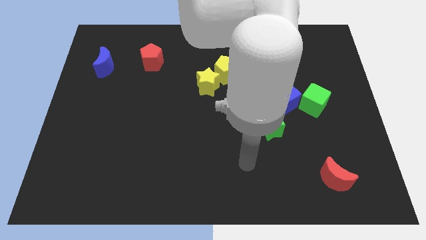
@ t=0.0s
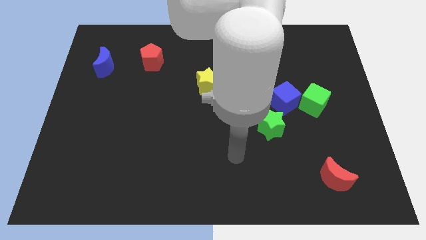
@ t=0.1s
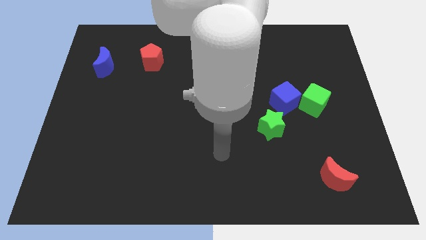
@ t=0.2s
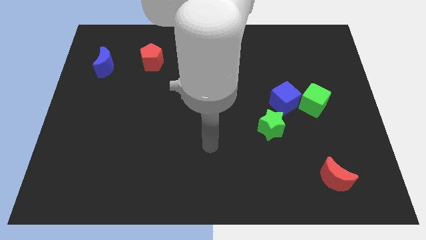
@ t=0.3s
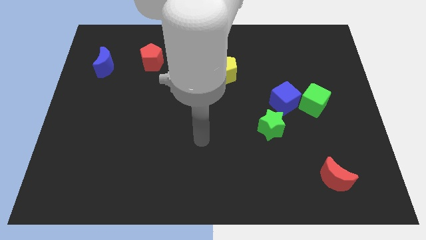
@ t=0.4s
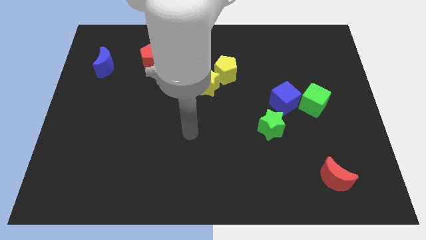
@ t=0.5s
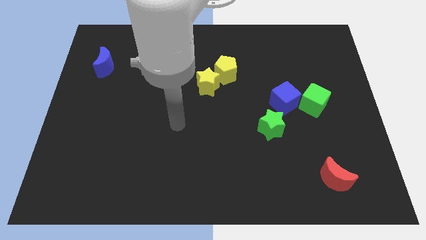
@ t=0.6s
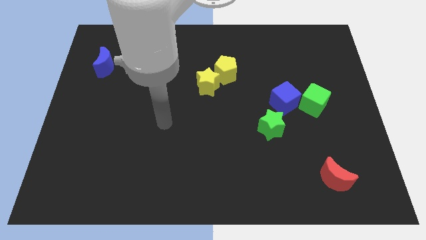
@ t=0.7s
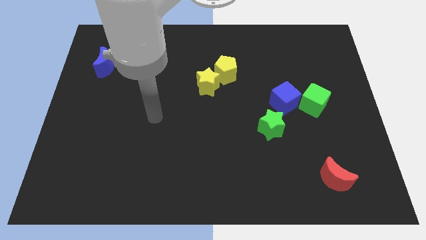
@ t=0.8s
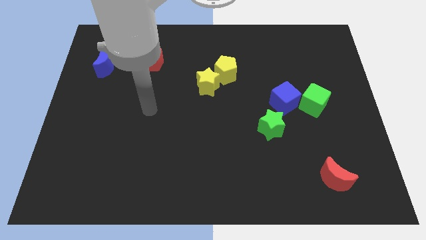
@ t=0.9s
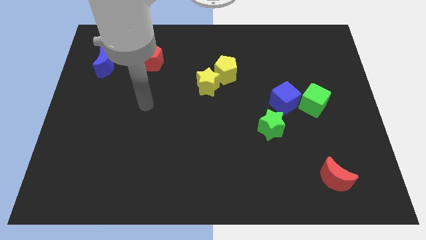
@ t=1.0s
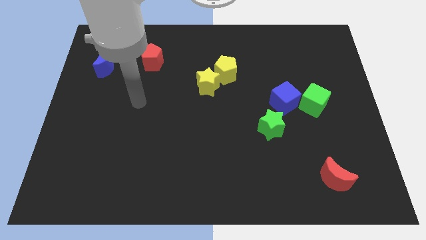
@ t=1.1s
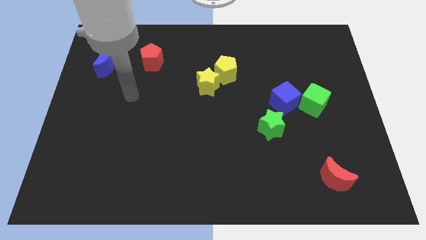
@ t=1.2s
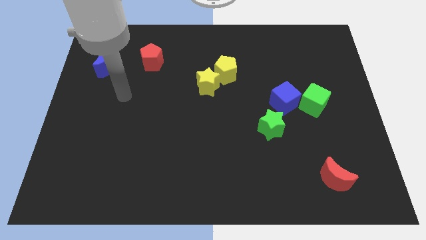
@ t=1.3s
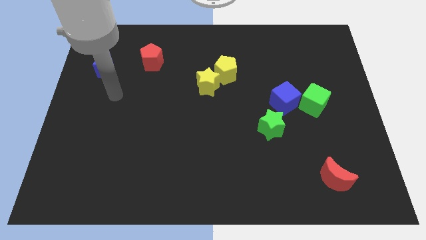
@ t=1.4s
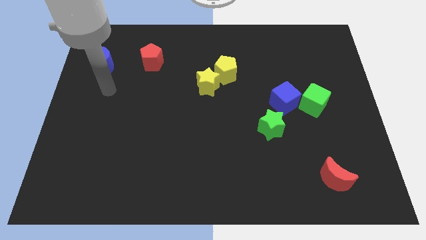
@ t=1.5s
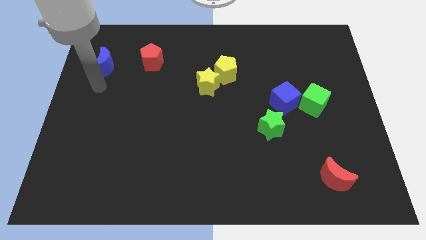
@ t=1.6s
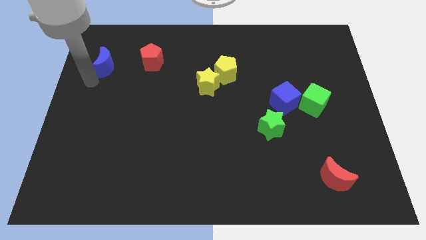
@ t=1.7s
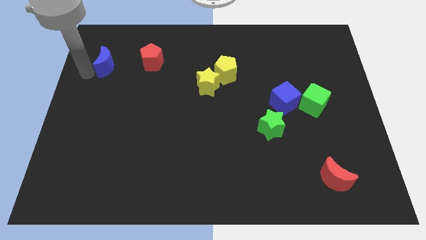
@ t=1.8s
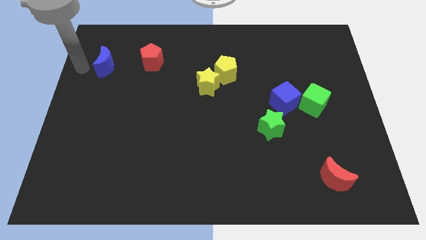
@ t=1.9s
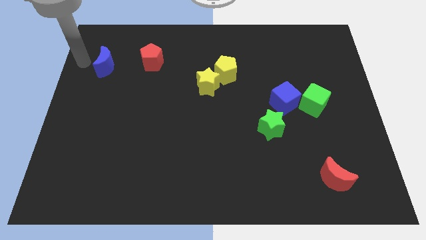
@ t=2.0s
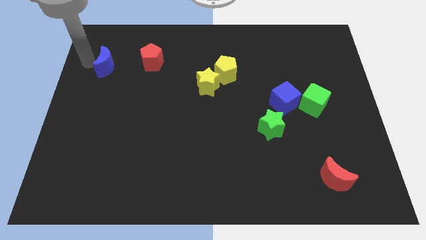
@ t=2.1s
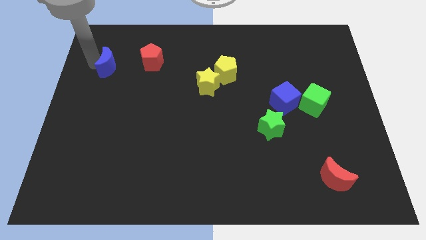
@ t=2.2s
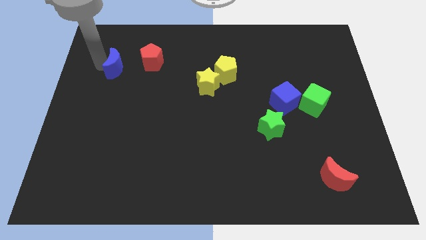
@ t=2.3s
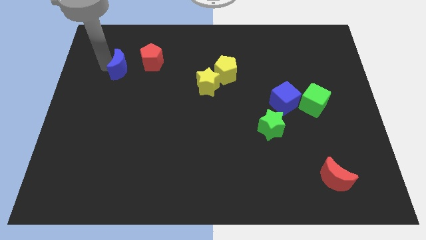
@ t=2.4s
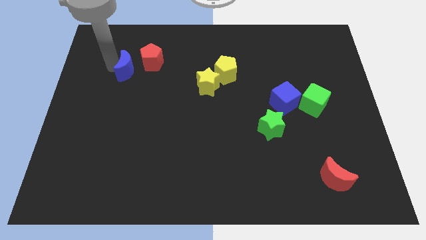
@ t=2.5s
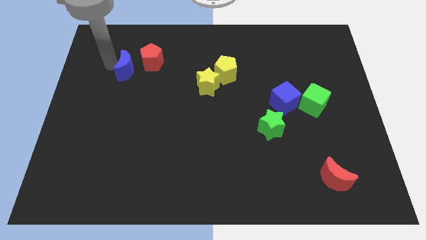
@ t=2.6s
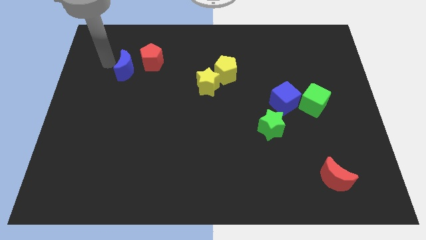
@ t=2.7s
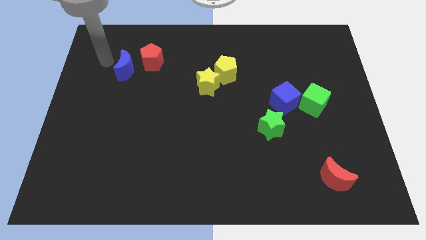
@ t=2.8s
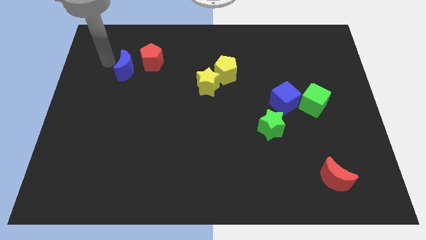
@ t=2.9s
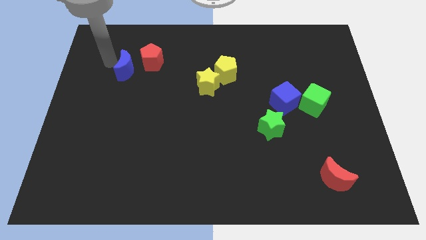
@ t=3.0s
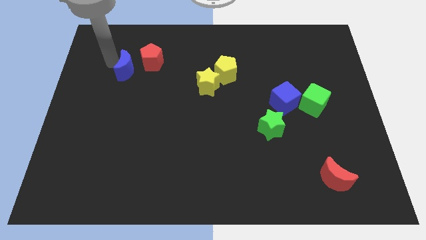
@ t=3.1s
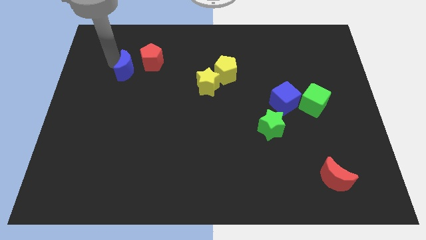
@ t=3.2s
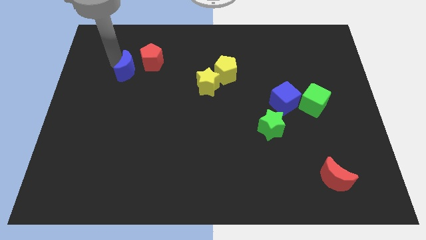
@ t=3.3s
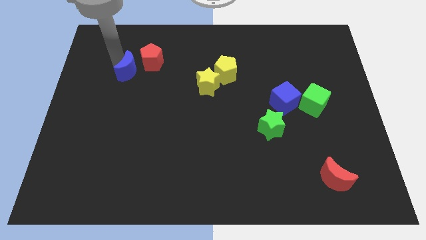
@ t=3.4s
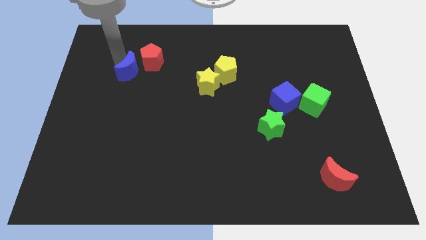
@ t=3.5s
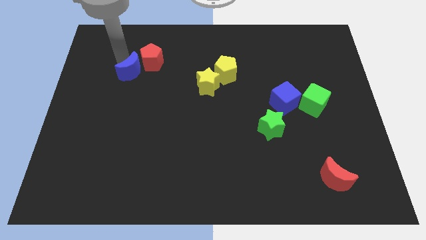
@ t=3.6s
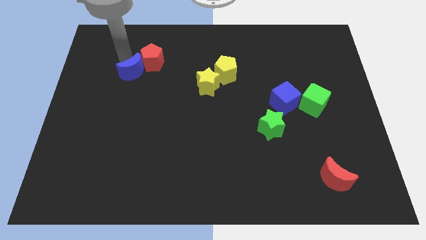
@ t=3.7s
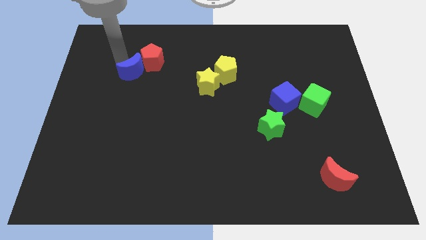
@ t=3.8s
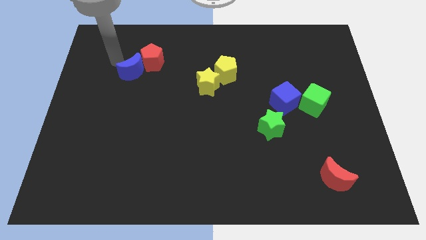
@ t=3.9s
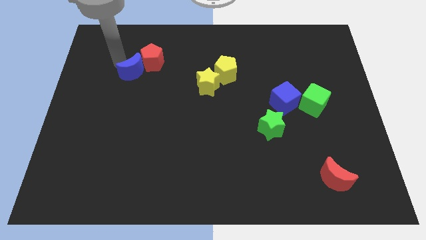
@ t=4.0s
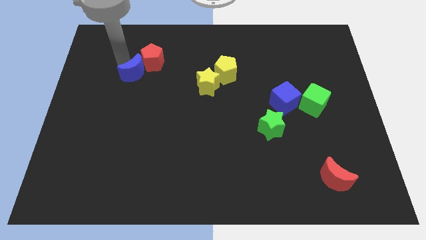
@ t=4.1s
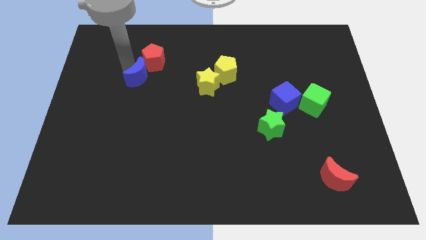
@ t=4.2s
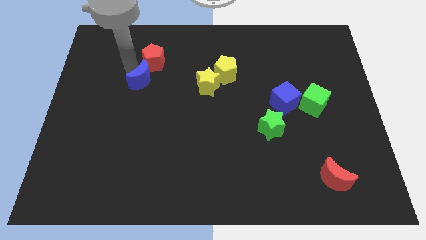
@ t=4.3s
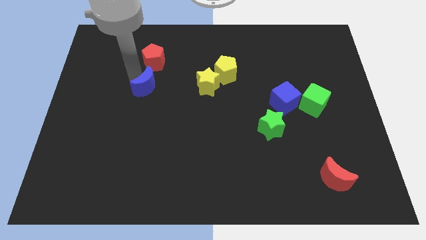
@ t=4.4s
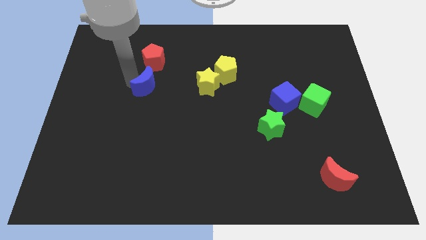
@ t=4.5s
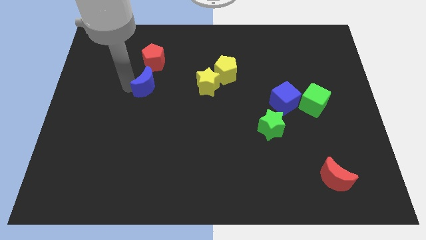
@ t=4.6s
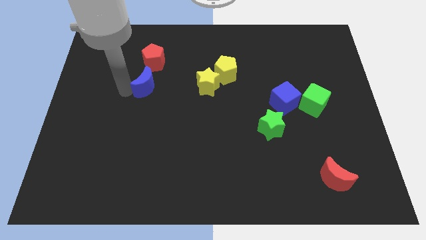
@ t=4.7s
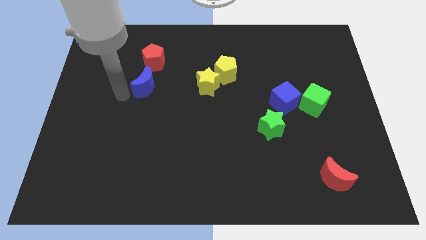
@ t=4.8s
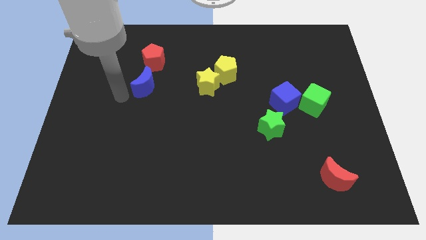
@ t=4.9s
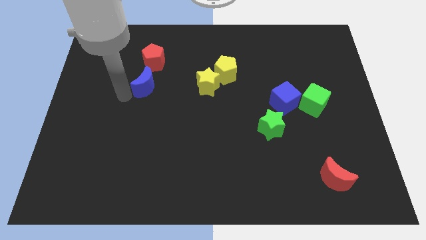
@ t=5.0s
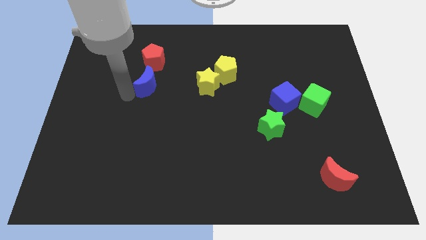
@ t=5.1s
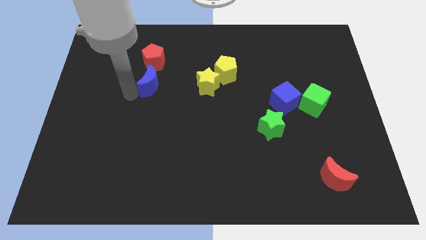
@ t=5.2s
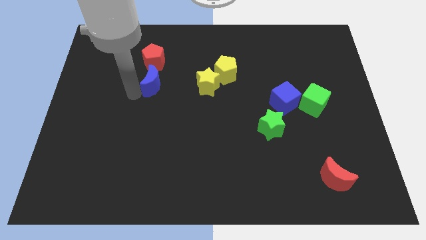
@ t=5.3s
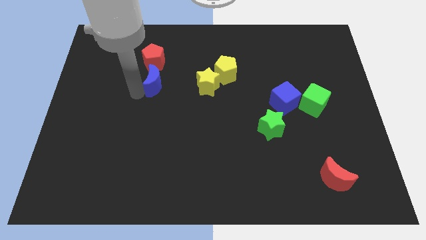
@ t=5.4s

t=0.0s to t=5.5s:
move the blue moon diagonally down and to the right of the red pentagon

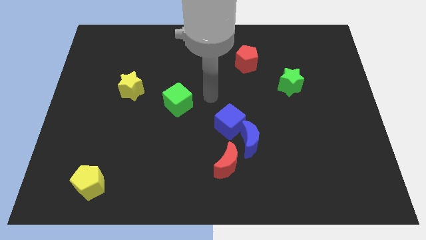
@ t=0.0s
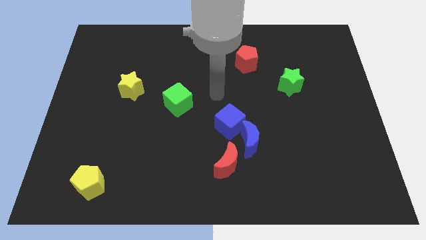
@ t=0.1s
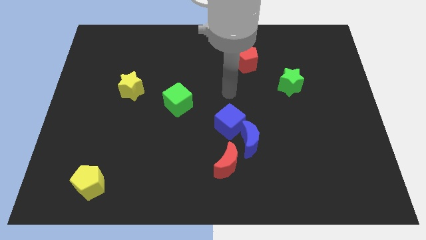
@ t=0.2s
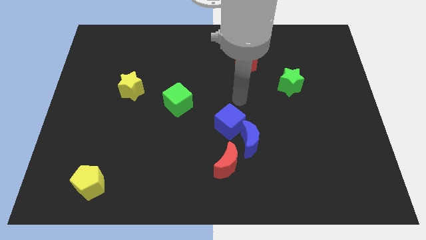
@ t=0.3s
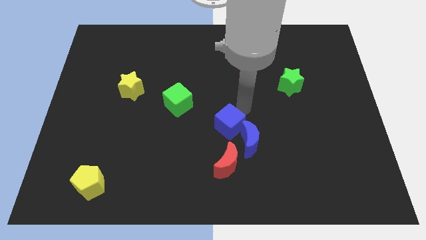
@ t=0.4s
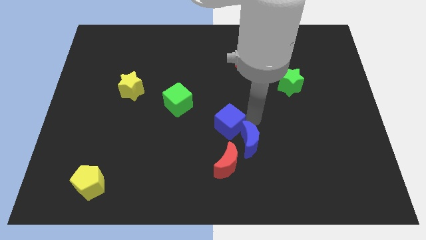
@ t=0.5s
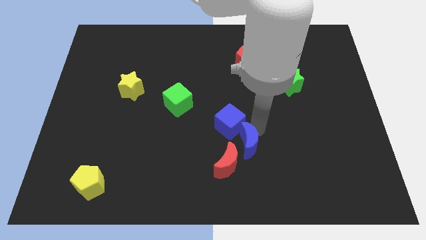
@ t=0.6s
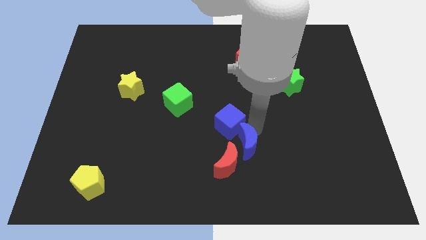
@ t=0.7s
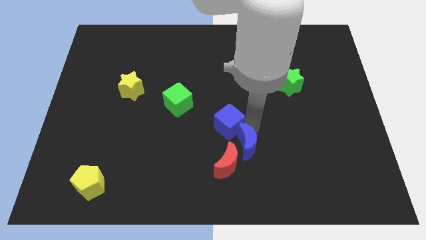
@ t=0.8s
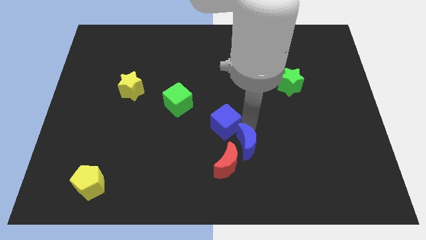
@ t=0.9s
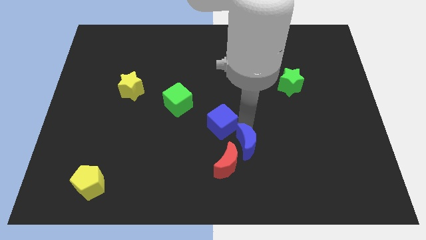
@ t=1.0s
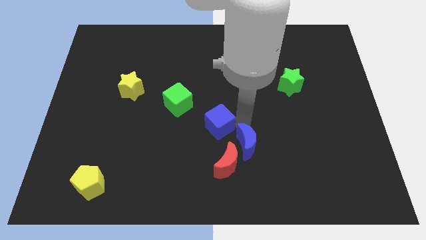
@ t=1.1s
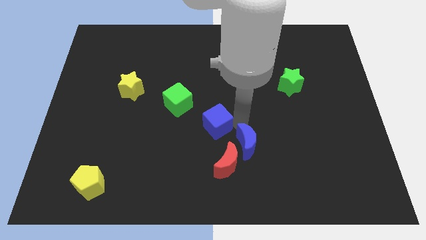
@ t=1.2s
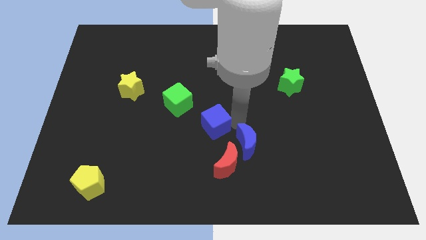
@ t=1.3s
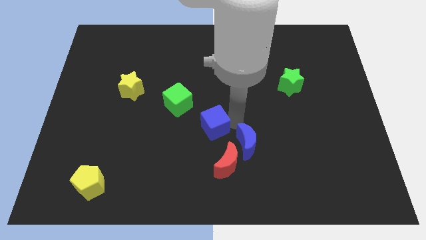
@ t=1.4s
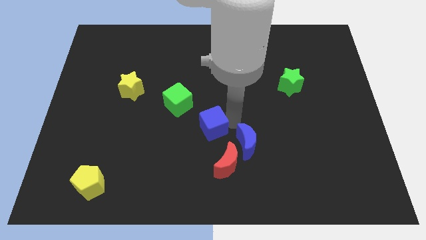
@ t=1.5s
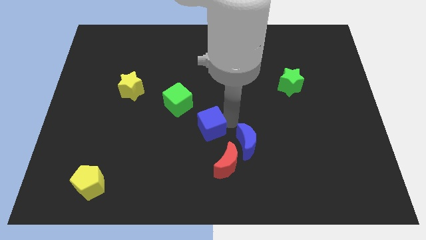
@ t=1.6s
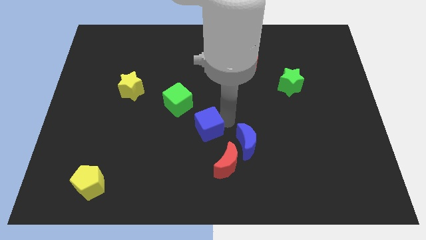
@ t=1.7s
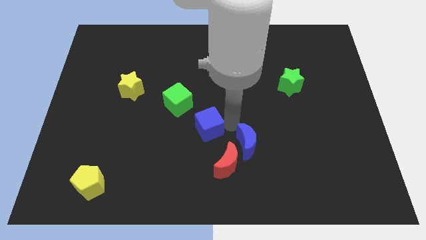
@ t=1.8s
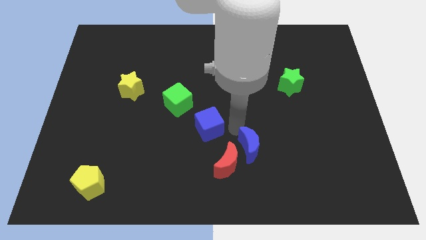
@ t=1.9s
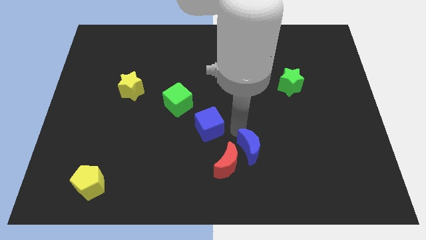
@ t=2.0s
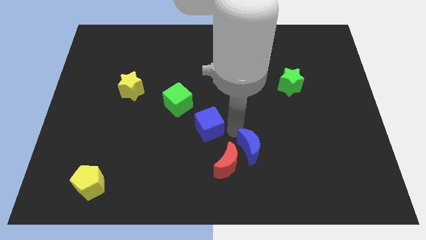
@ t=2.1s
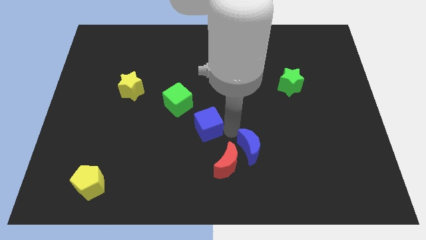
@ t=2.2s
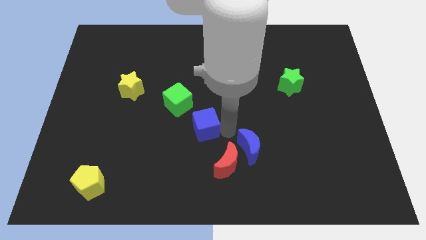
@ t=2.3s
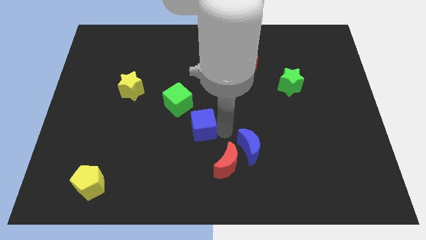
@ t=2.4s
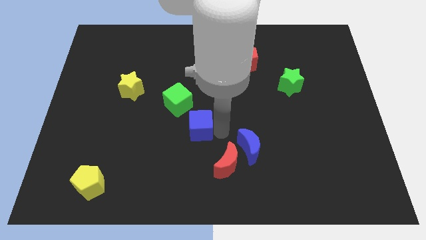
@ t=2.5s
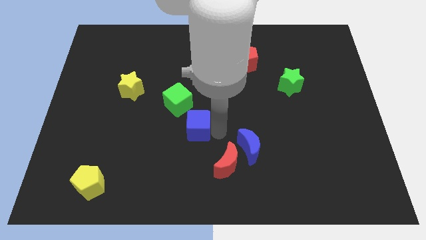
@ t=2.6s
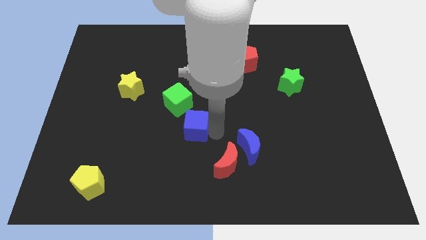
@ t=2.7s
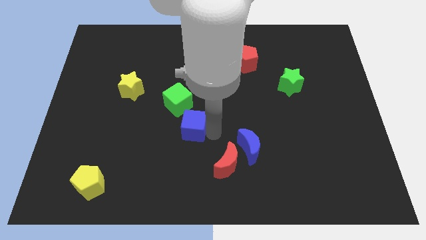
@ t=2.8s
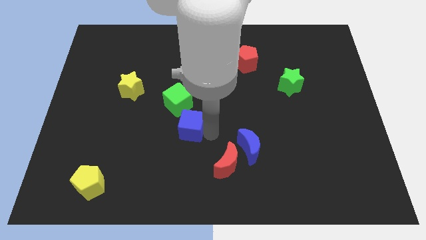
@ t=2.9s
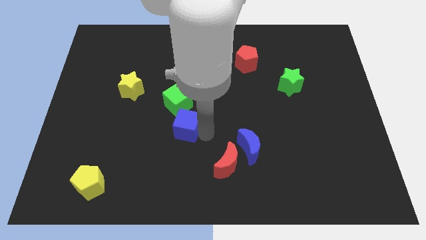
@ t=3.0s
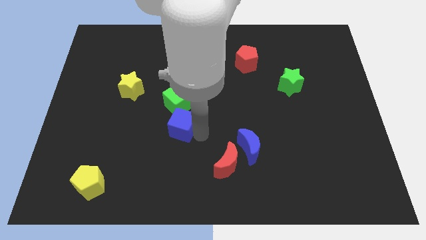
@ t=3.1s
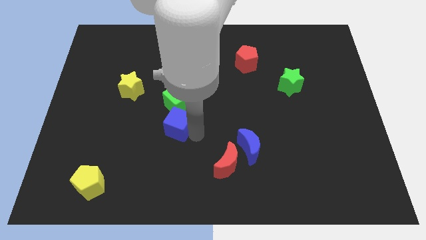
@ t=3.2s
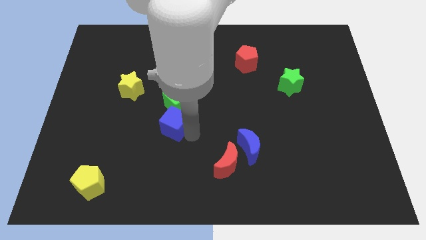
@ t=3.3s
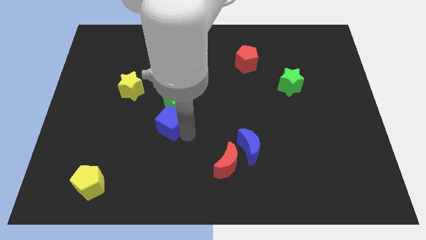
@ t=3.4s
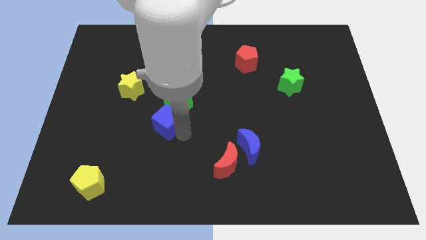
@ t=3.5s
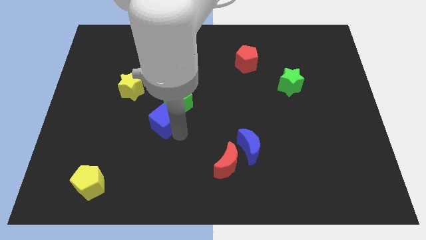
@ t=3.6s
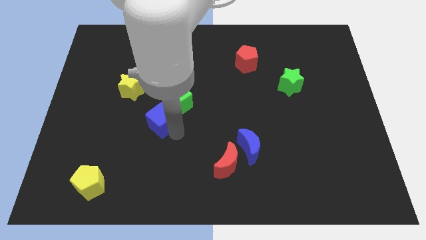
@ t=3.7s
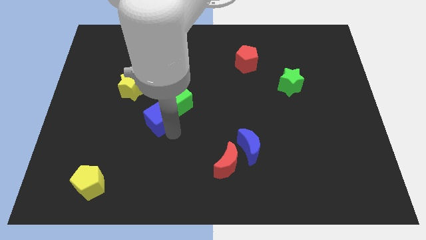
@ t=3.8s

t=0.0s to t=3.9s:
put the blue cube to the bottom right of the yellow star
